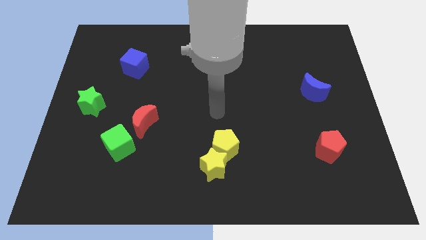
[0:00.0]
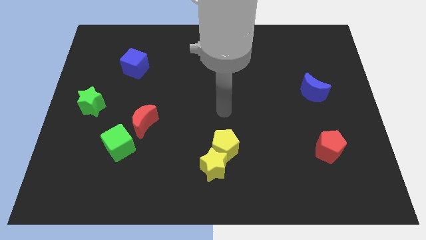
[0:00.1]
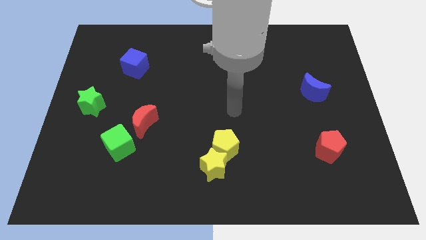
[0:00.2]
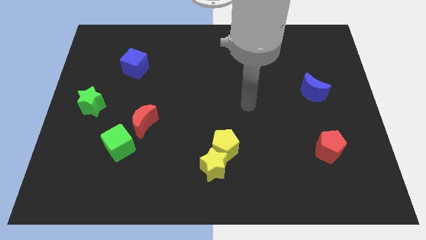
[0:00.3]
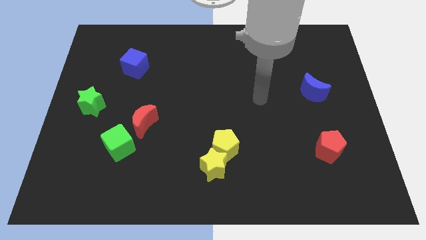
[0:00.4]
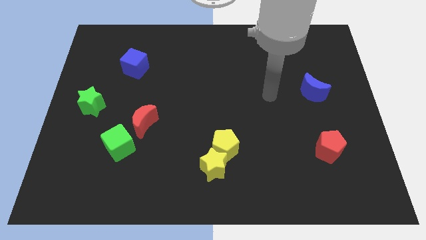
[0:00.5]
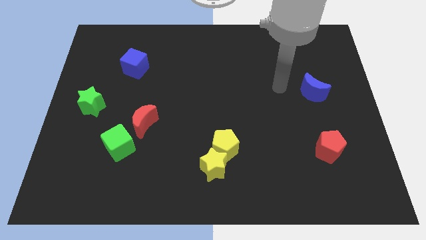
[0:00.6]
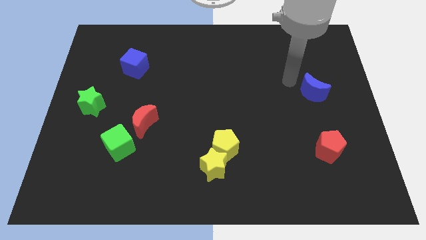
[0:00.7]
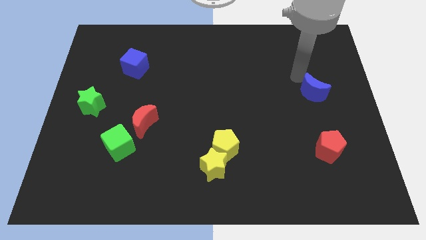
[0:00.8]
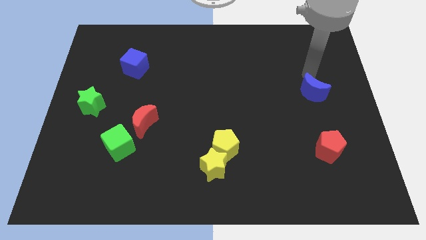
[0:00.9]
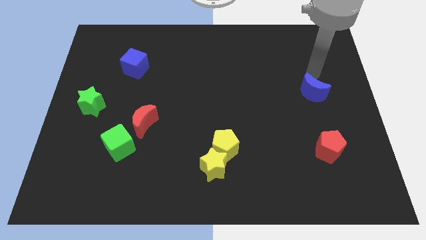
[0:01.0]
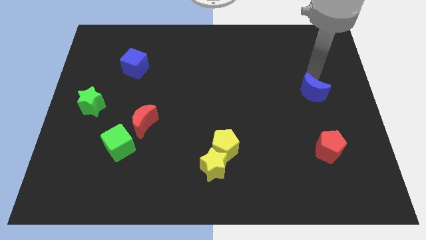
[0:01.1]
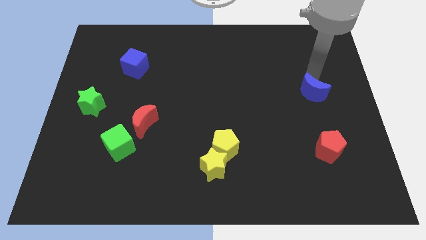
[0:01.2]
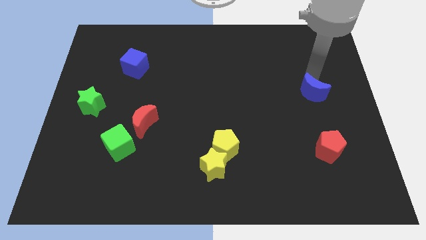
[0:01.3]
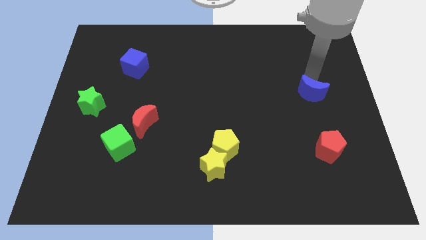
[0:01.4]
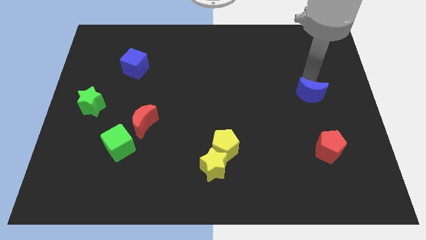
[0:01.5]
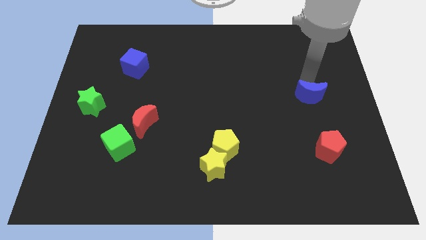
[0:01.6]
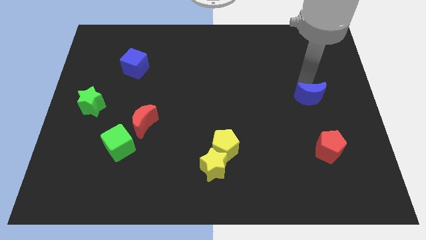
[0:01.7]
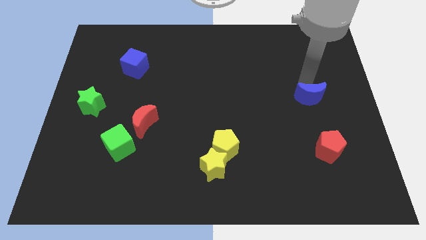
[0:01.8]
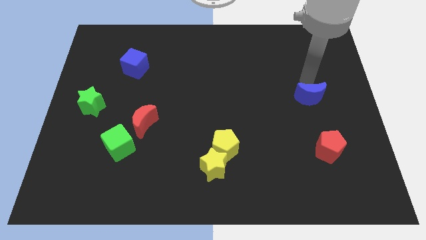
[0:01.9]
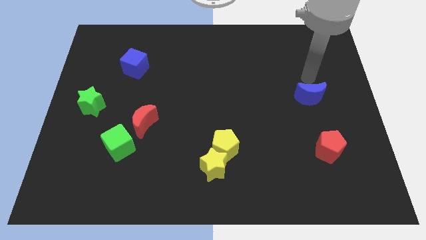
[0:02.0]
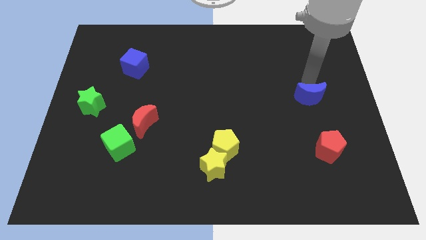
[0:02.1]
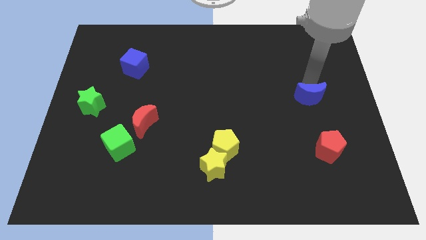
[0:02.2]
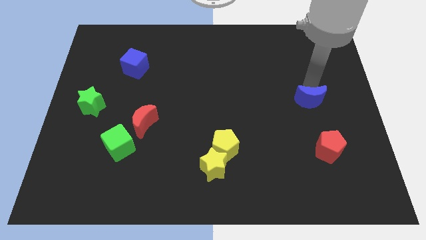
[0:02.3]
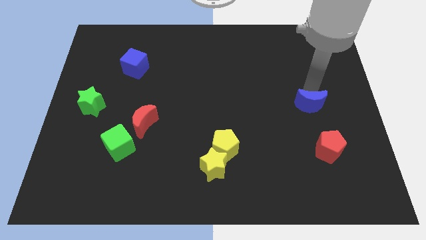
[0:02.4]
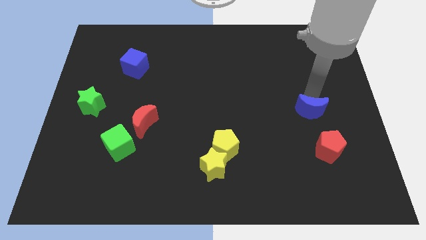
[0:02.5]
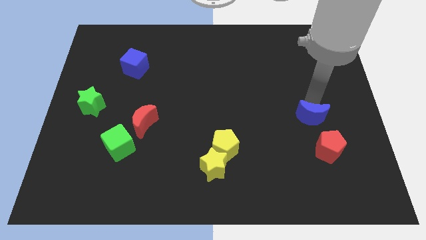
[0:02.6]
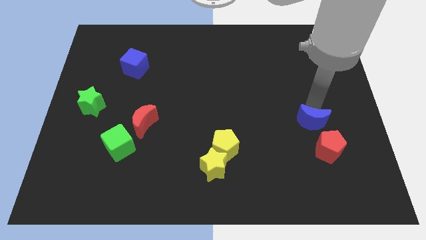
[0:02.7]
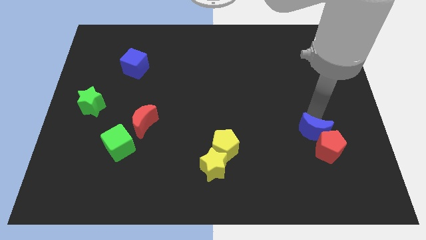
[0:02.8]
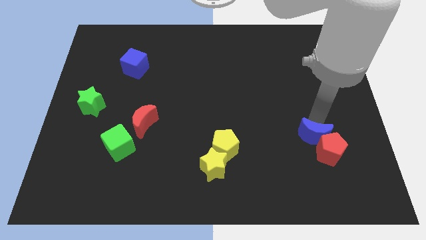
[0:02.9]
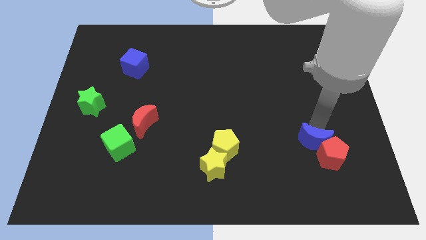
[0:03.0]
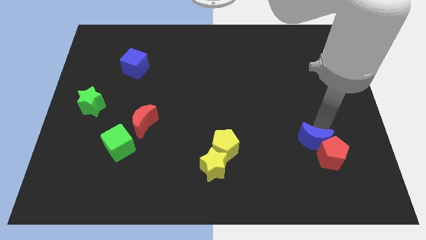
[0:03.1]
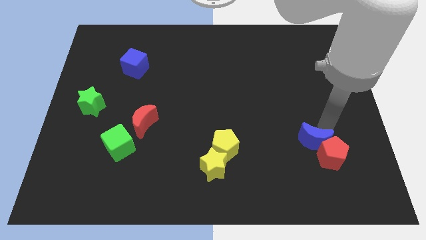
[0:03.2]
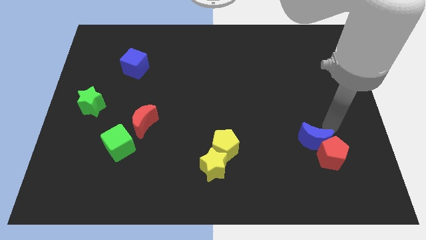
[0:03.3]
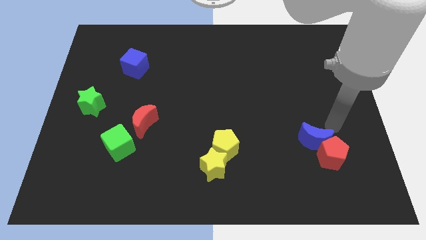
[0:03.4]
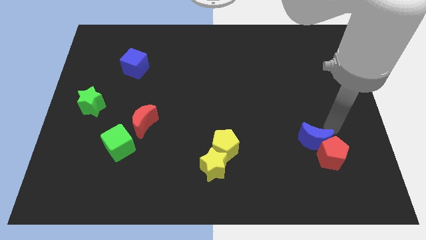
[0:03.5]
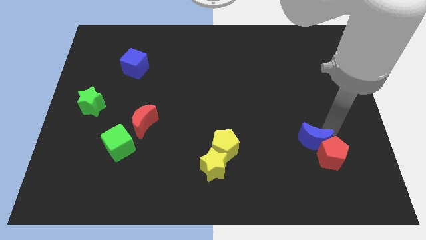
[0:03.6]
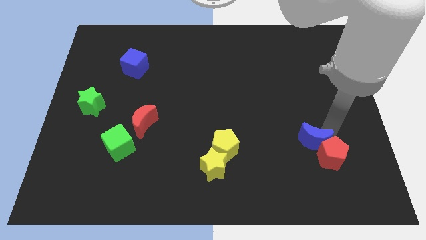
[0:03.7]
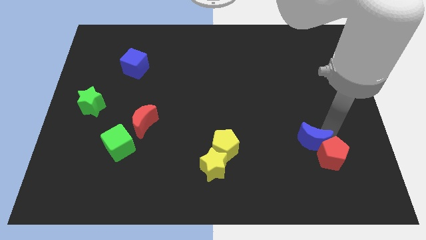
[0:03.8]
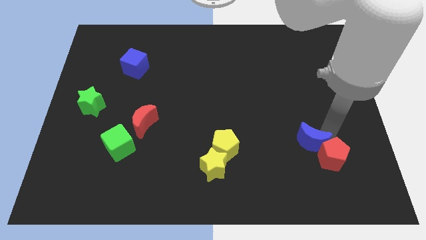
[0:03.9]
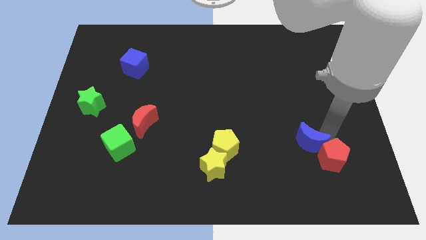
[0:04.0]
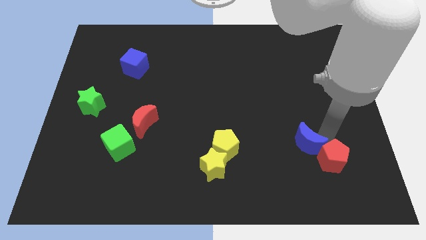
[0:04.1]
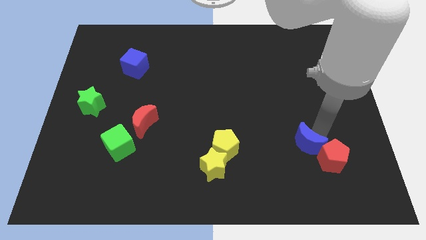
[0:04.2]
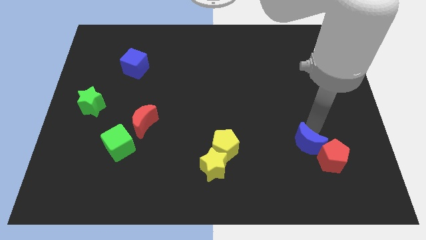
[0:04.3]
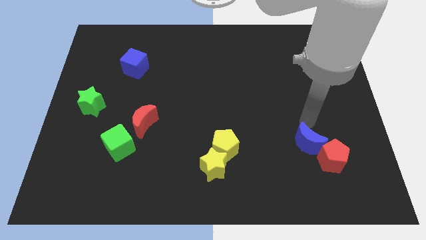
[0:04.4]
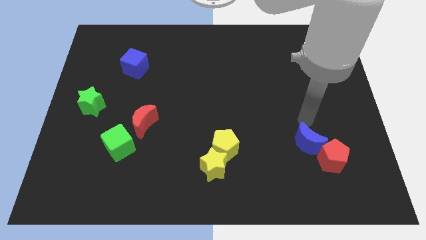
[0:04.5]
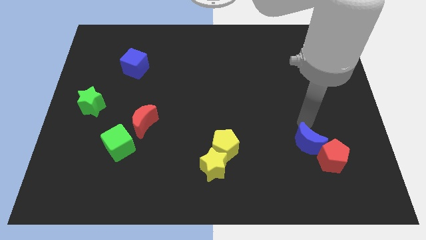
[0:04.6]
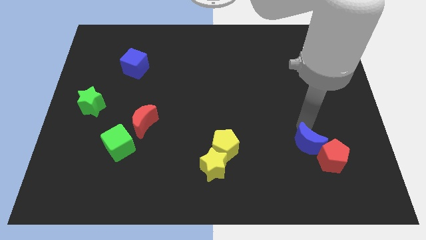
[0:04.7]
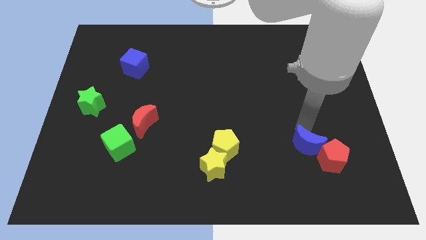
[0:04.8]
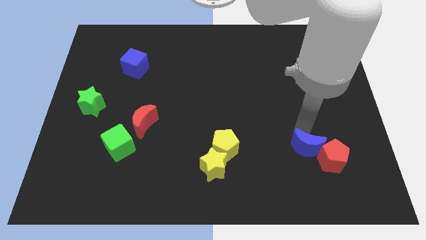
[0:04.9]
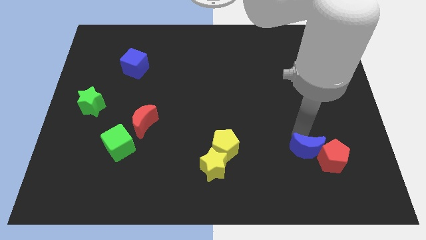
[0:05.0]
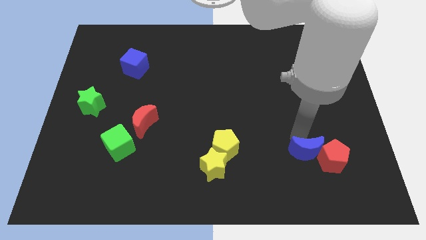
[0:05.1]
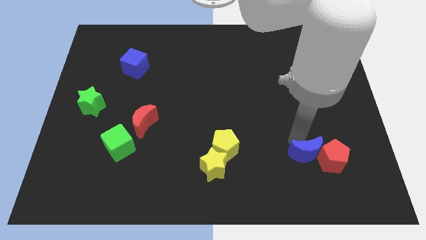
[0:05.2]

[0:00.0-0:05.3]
move the blue moon diagonally down and to the left of the red pentagon
